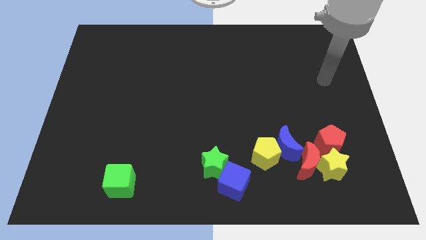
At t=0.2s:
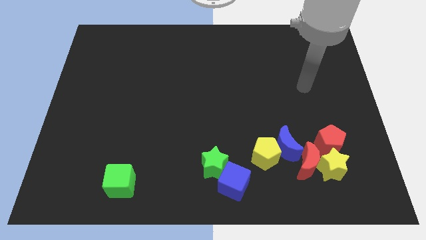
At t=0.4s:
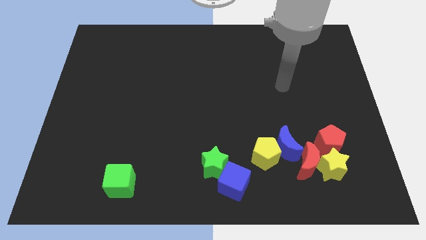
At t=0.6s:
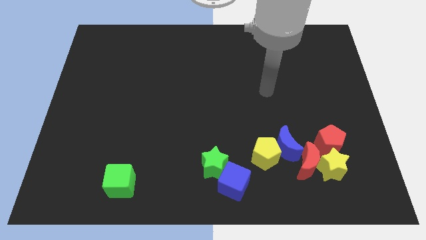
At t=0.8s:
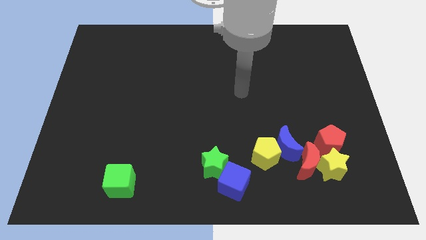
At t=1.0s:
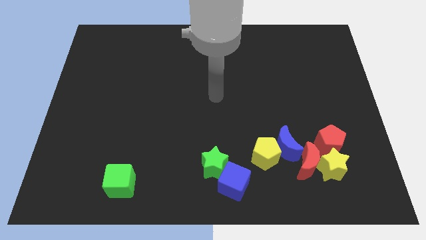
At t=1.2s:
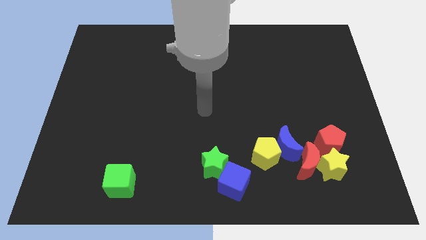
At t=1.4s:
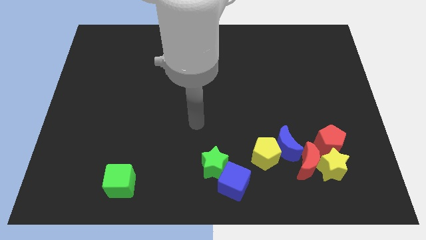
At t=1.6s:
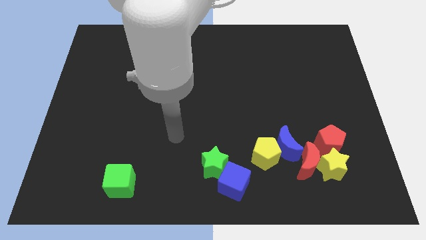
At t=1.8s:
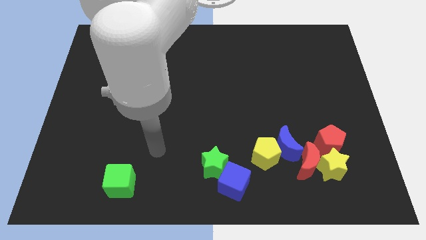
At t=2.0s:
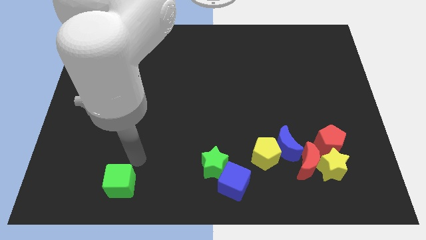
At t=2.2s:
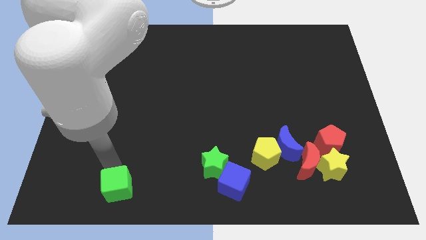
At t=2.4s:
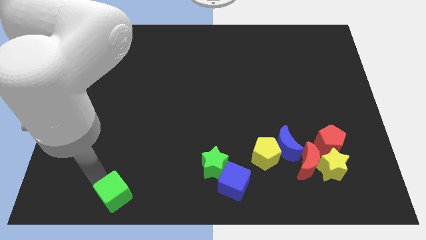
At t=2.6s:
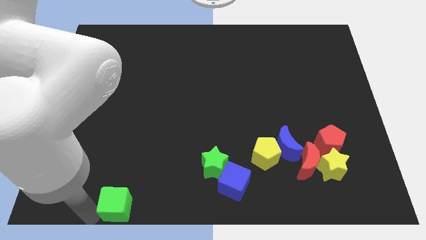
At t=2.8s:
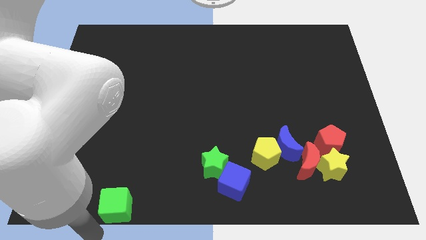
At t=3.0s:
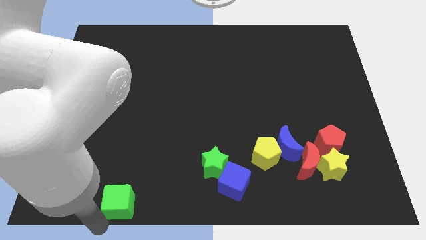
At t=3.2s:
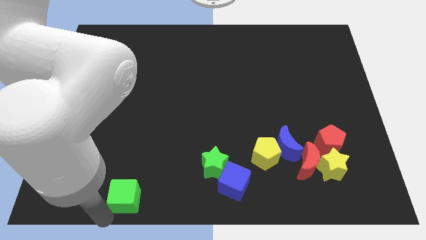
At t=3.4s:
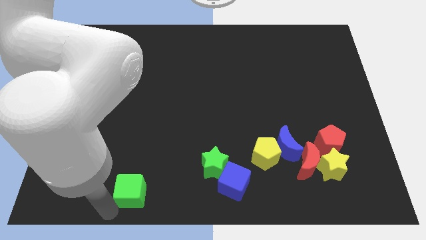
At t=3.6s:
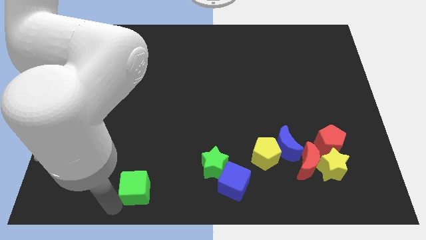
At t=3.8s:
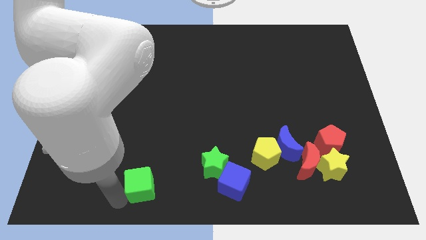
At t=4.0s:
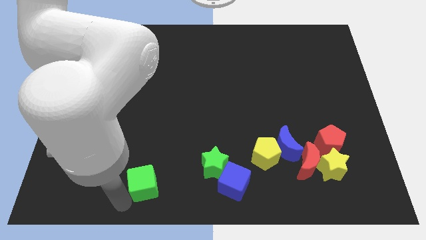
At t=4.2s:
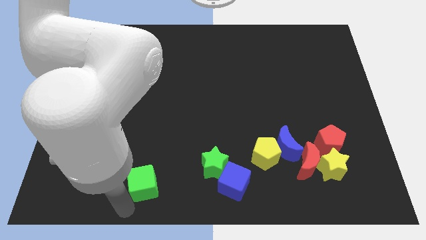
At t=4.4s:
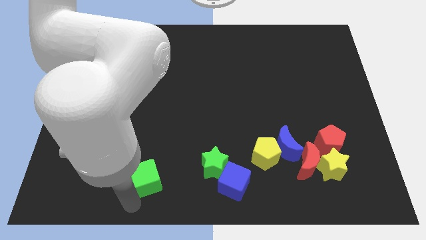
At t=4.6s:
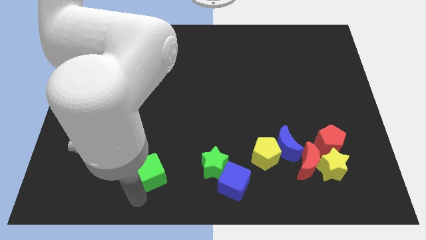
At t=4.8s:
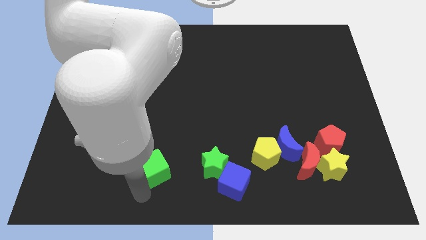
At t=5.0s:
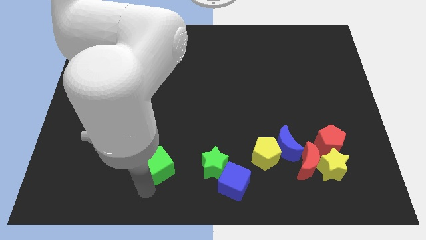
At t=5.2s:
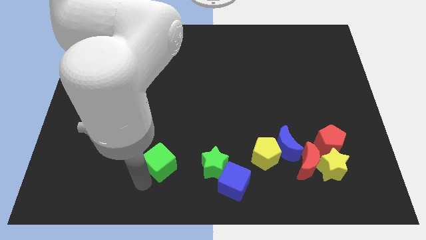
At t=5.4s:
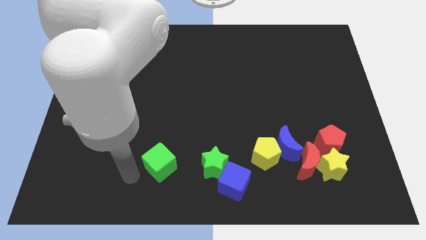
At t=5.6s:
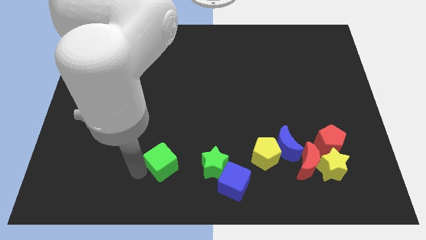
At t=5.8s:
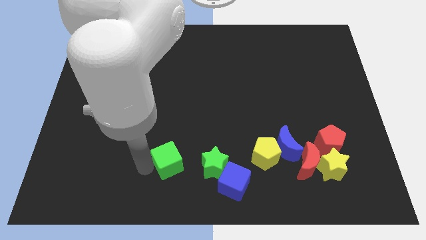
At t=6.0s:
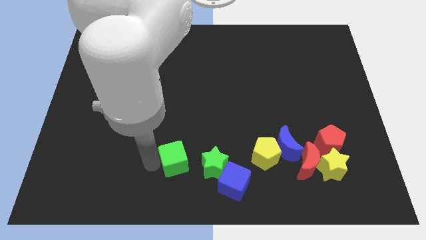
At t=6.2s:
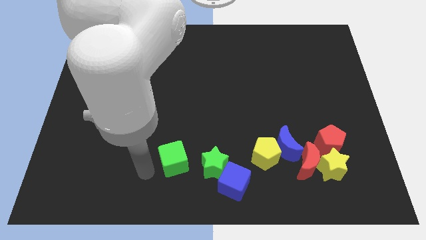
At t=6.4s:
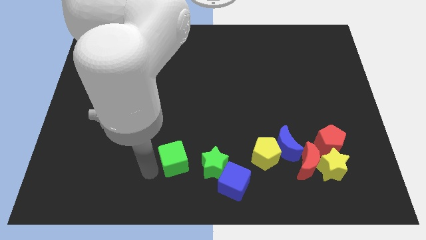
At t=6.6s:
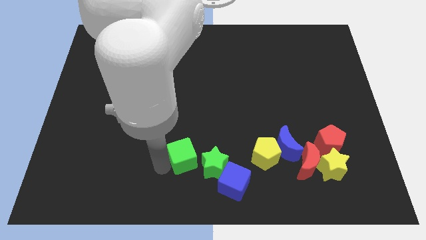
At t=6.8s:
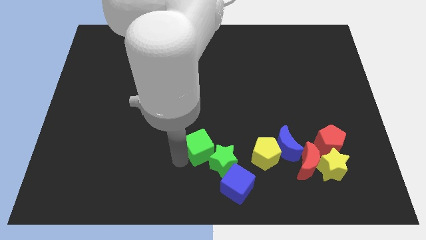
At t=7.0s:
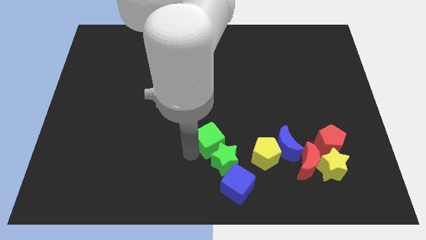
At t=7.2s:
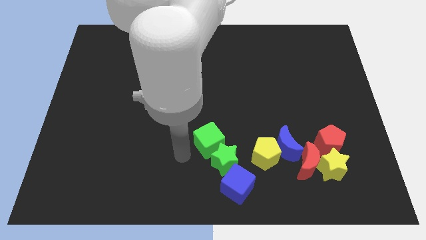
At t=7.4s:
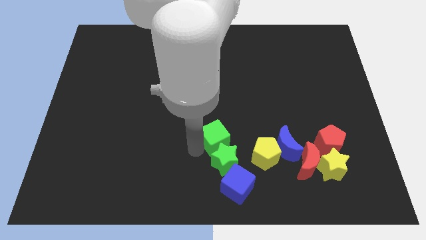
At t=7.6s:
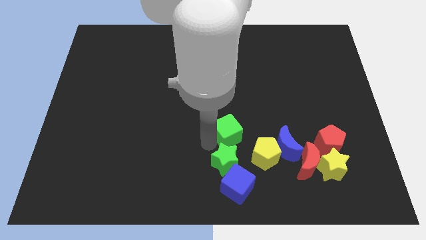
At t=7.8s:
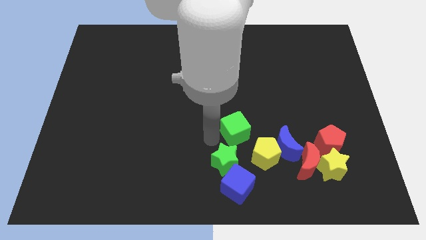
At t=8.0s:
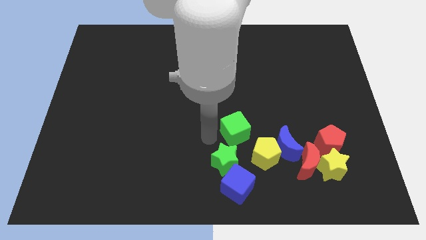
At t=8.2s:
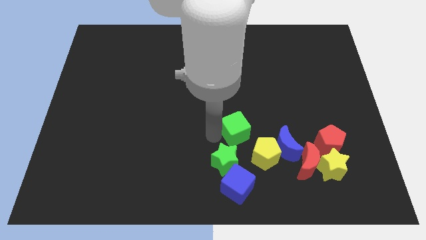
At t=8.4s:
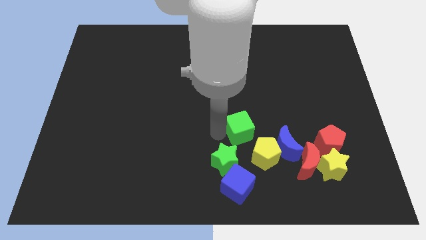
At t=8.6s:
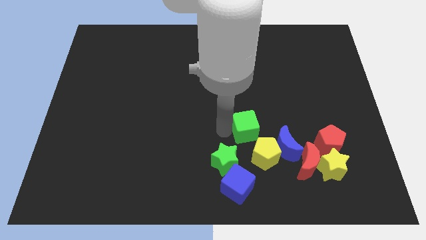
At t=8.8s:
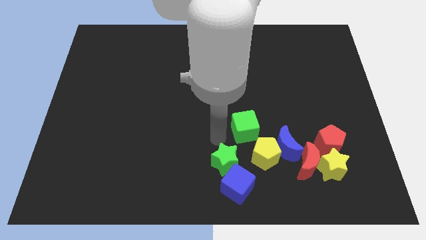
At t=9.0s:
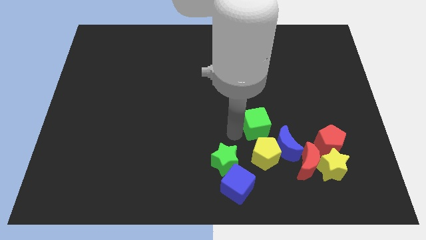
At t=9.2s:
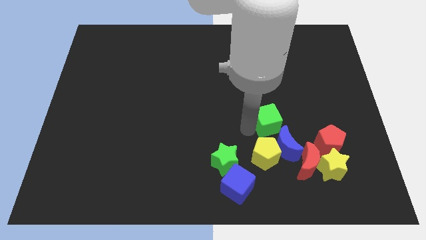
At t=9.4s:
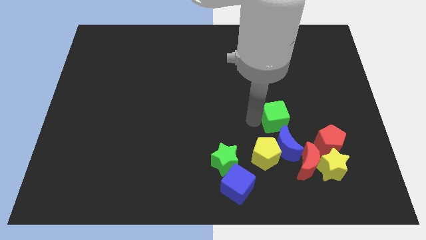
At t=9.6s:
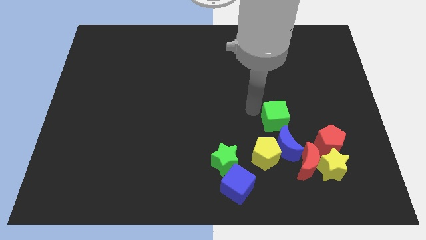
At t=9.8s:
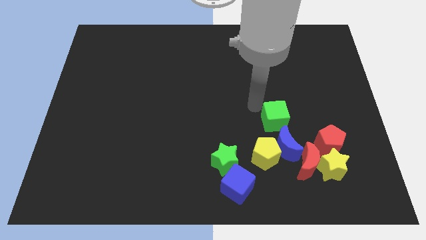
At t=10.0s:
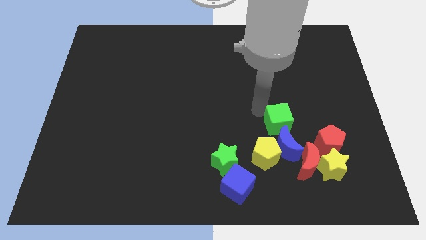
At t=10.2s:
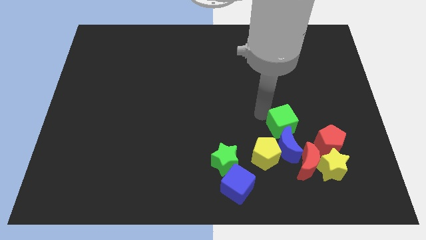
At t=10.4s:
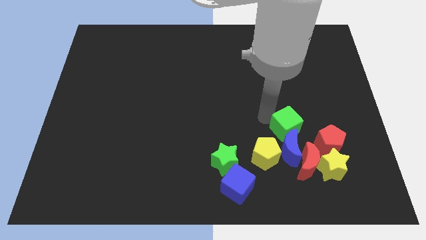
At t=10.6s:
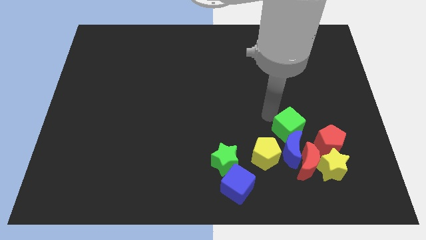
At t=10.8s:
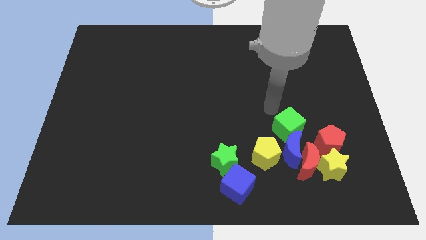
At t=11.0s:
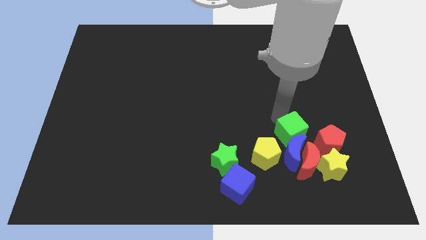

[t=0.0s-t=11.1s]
put the green cube to the top left of the yellow star

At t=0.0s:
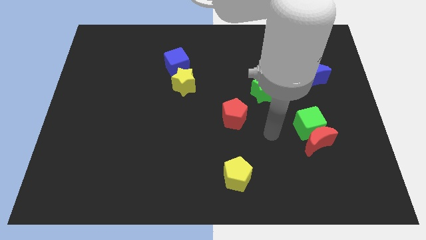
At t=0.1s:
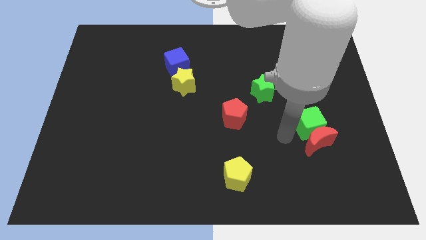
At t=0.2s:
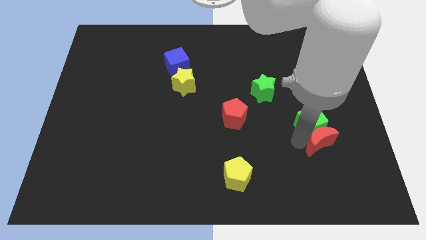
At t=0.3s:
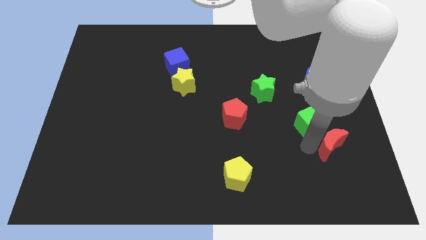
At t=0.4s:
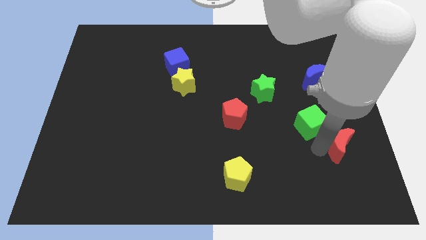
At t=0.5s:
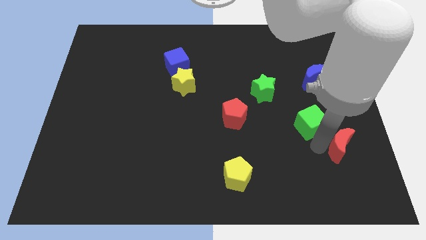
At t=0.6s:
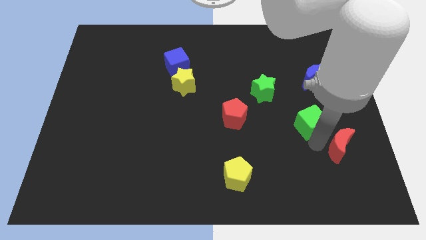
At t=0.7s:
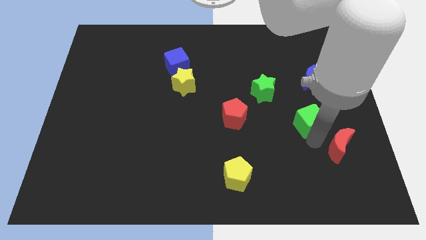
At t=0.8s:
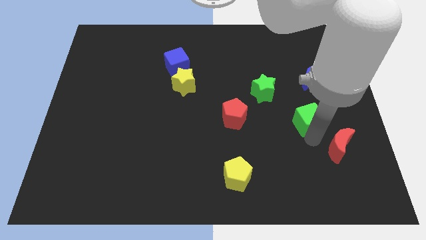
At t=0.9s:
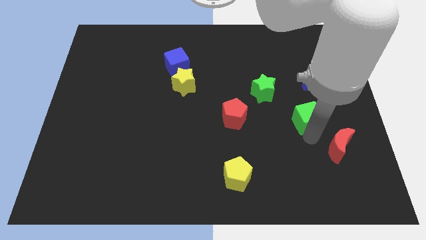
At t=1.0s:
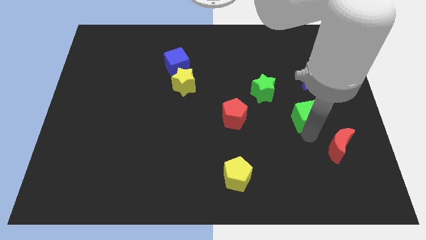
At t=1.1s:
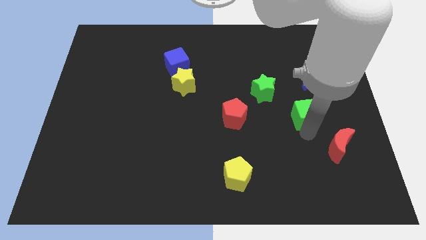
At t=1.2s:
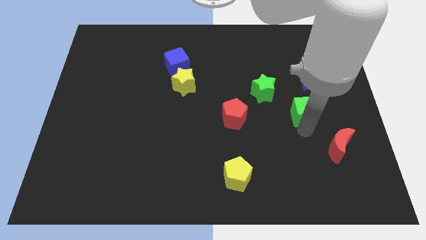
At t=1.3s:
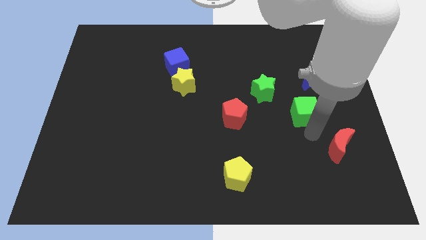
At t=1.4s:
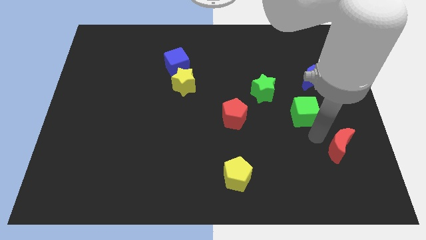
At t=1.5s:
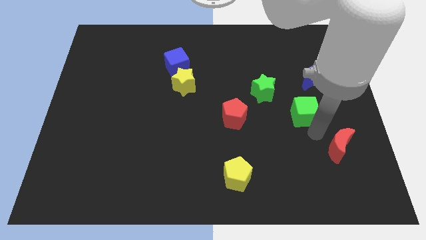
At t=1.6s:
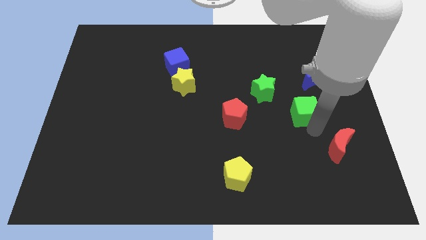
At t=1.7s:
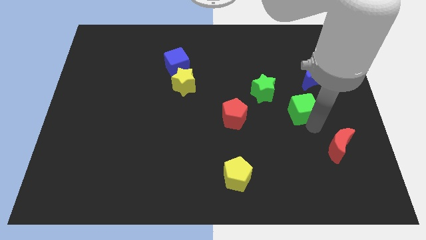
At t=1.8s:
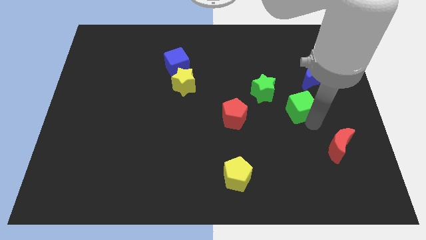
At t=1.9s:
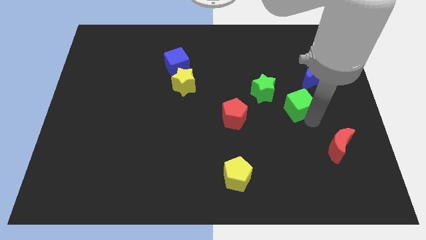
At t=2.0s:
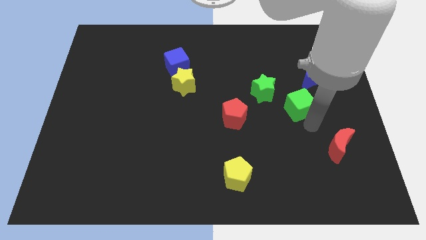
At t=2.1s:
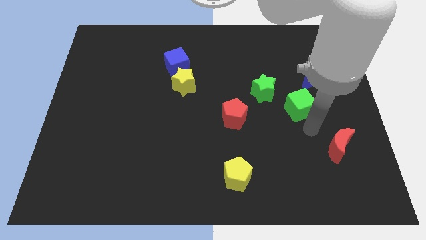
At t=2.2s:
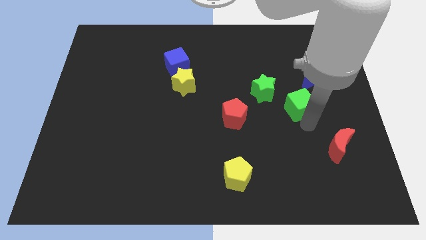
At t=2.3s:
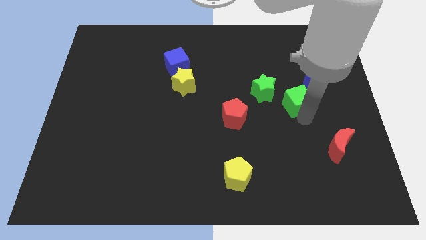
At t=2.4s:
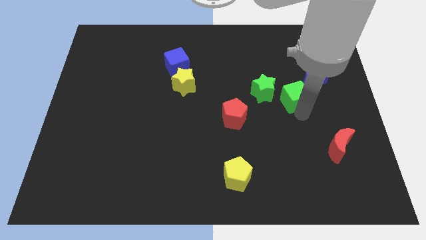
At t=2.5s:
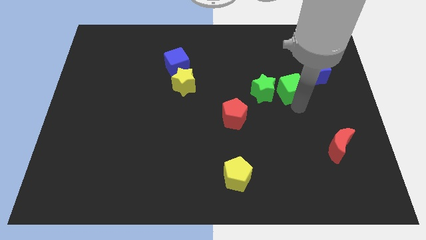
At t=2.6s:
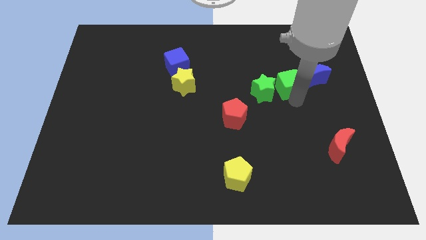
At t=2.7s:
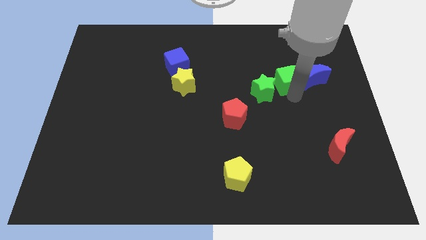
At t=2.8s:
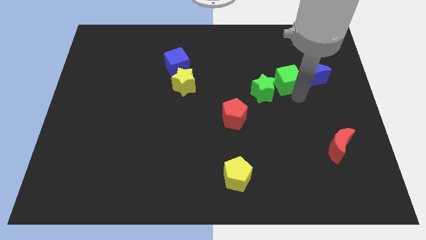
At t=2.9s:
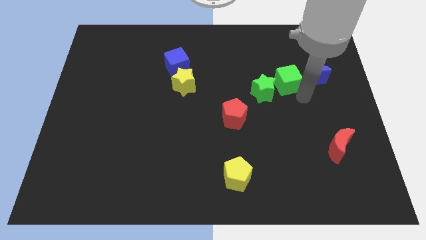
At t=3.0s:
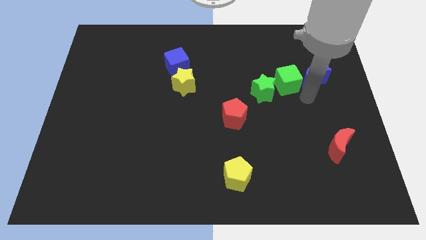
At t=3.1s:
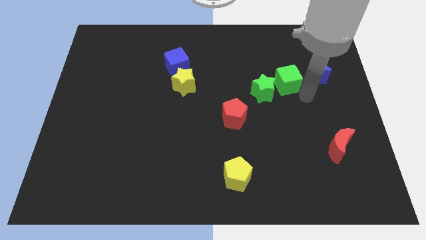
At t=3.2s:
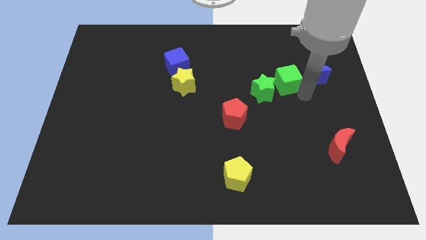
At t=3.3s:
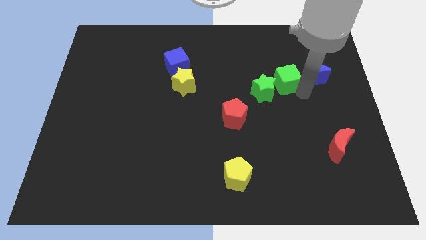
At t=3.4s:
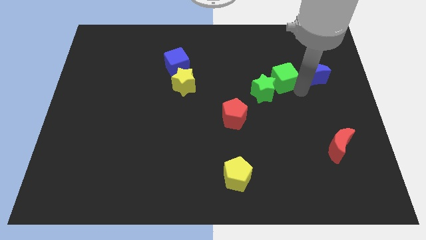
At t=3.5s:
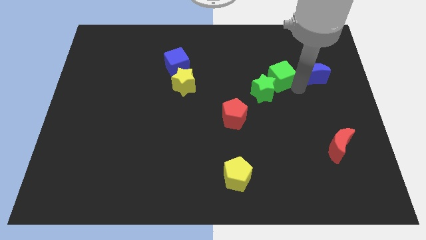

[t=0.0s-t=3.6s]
put the green cube above the green star
